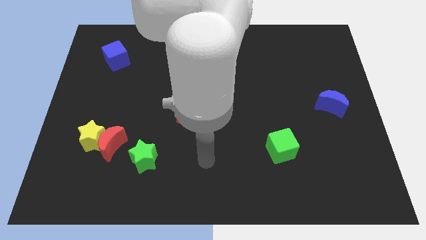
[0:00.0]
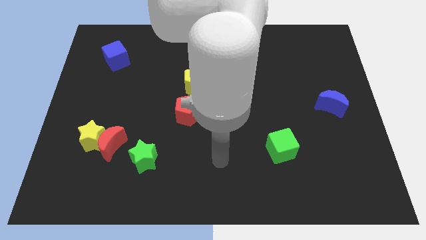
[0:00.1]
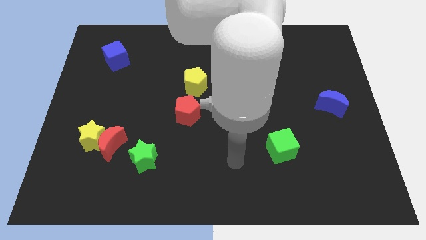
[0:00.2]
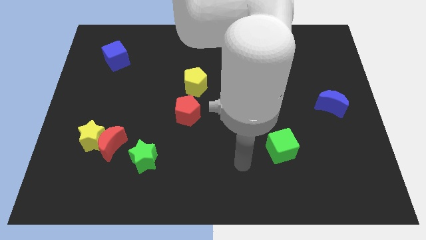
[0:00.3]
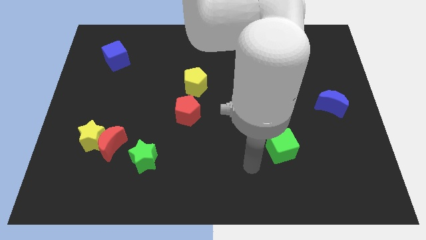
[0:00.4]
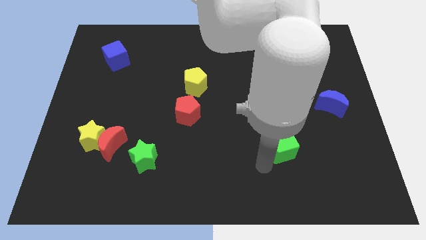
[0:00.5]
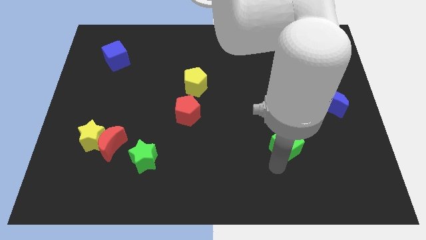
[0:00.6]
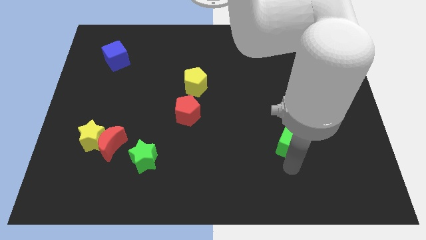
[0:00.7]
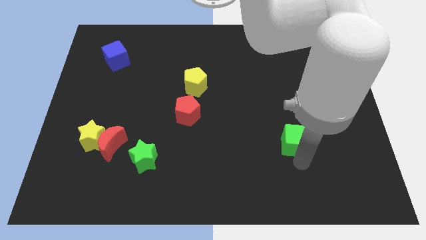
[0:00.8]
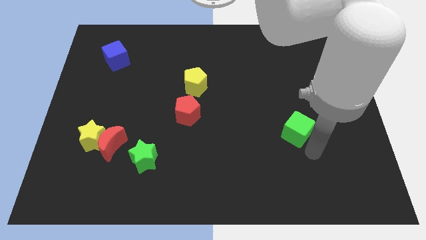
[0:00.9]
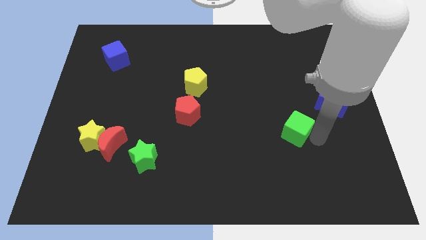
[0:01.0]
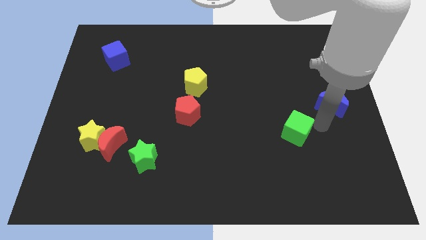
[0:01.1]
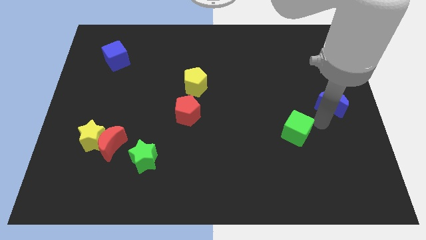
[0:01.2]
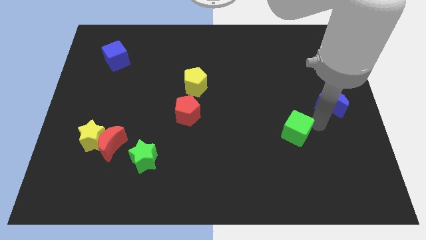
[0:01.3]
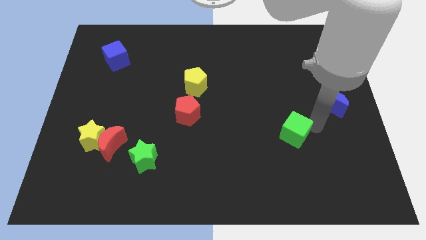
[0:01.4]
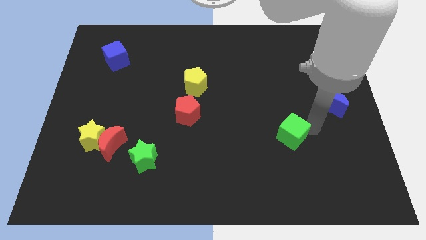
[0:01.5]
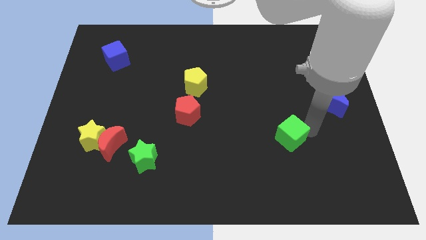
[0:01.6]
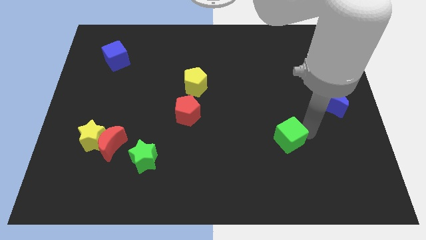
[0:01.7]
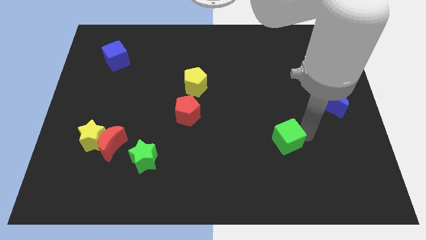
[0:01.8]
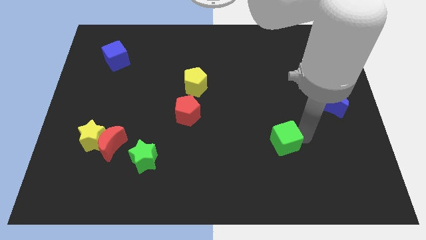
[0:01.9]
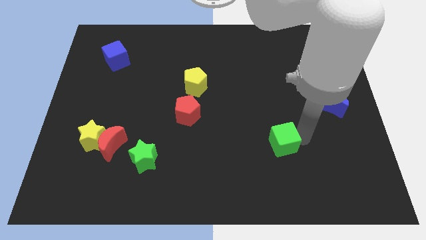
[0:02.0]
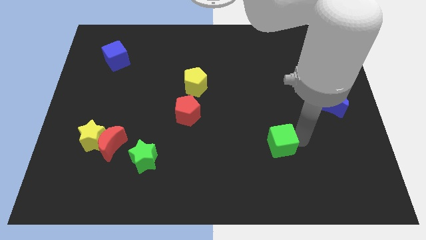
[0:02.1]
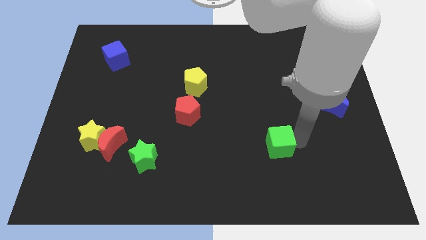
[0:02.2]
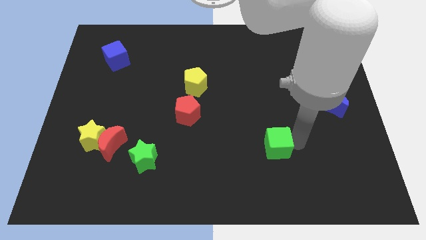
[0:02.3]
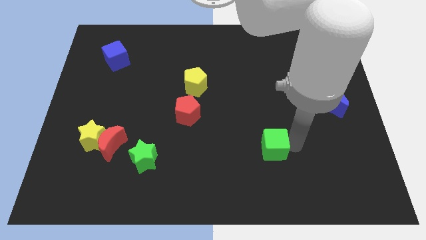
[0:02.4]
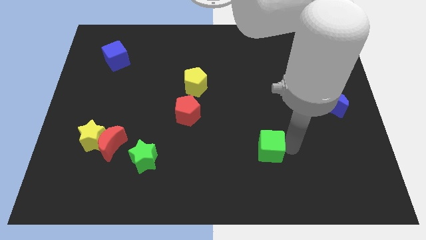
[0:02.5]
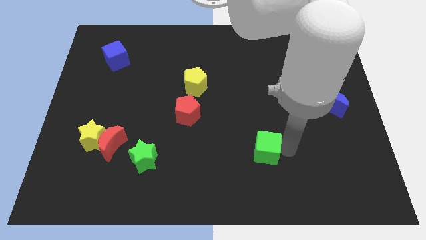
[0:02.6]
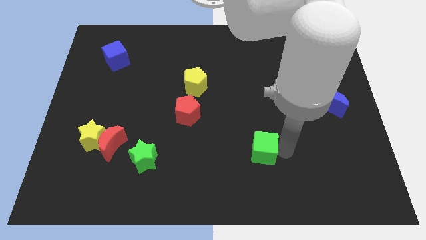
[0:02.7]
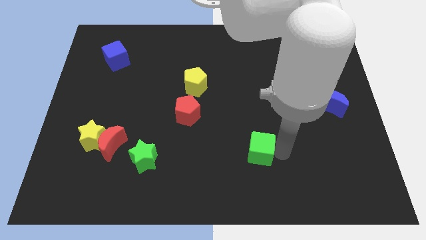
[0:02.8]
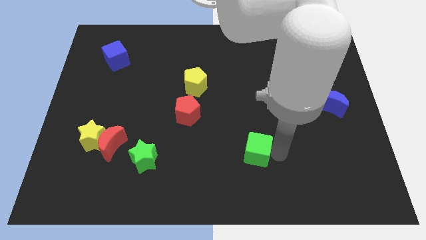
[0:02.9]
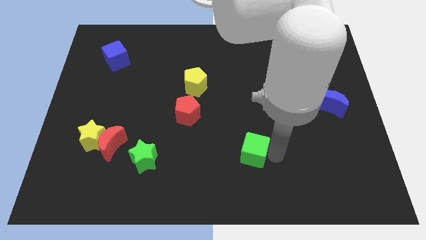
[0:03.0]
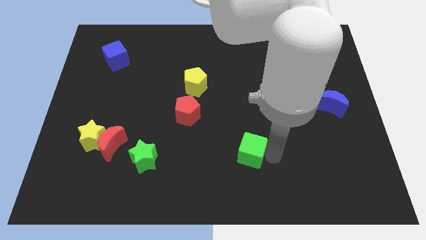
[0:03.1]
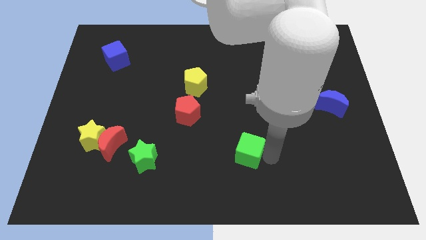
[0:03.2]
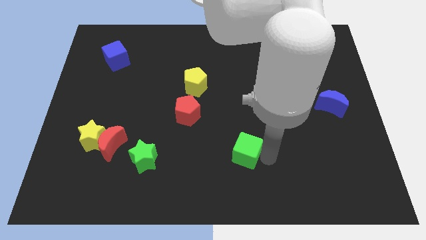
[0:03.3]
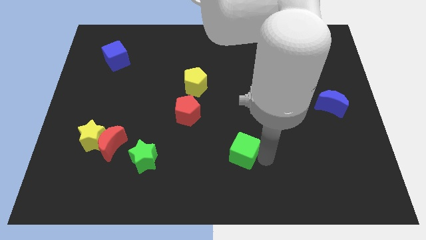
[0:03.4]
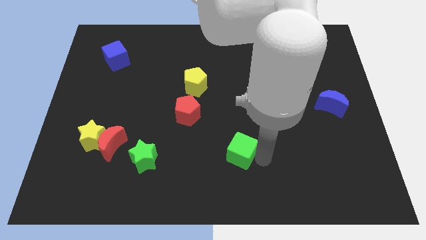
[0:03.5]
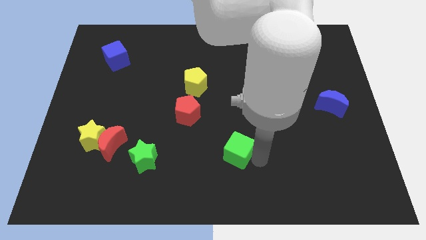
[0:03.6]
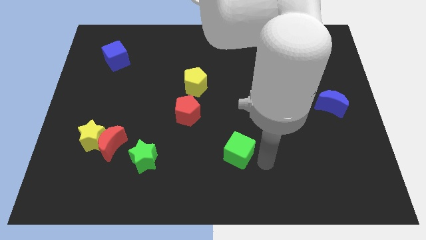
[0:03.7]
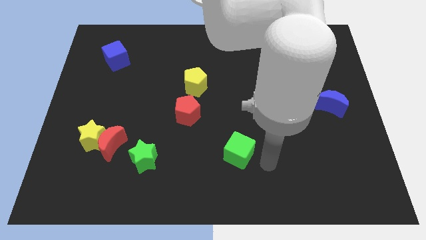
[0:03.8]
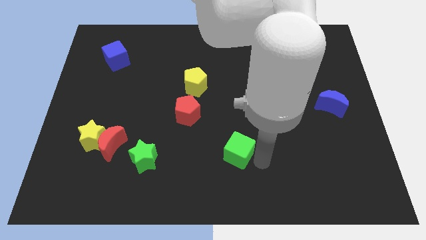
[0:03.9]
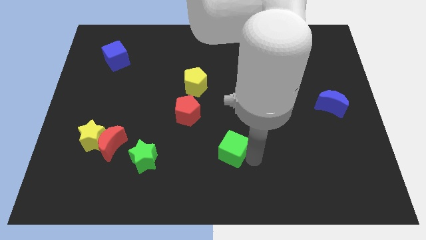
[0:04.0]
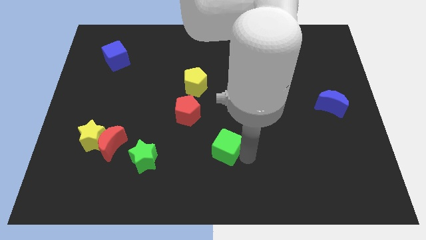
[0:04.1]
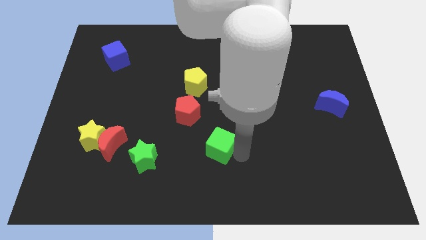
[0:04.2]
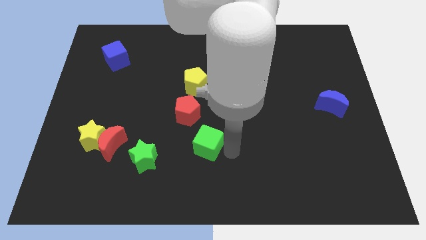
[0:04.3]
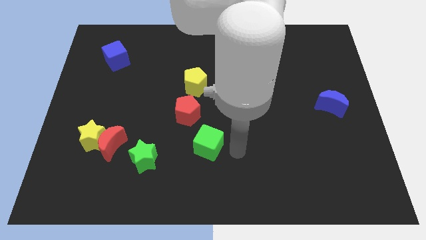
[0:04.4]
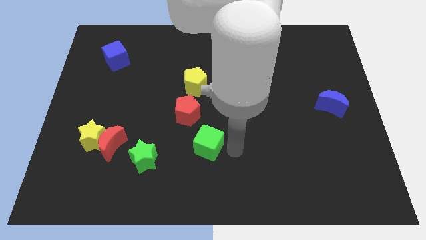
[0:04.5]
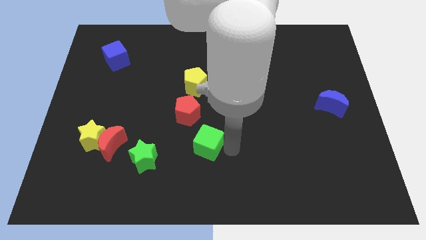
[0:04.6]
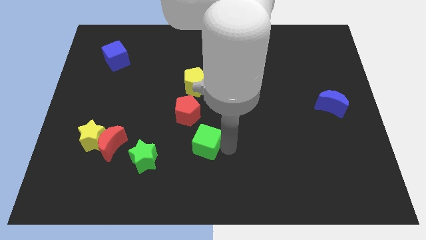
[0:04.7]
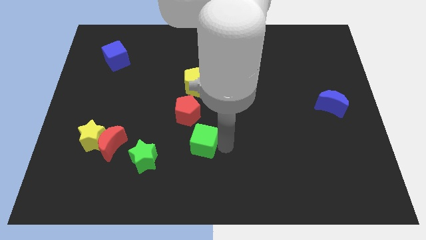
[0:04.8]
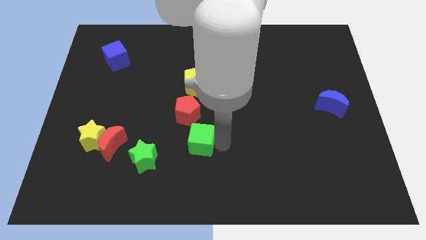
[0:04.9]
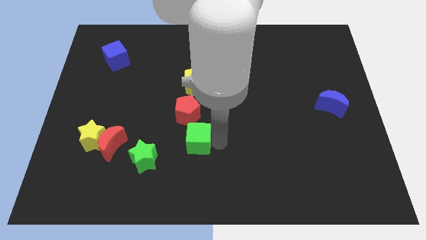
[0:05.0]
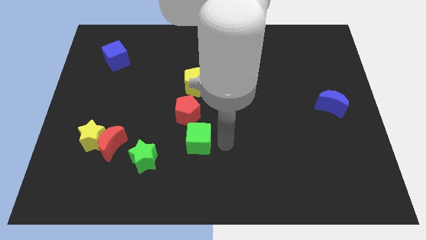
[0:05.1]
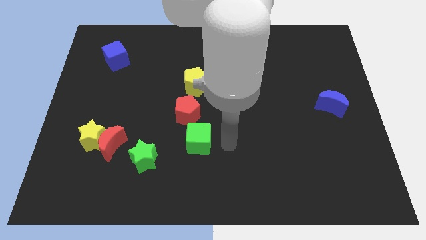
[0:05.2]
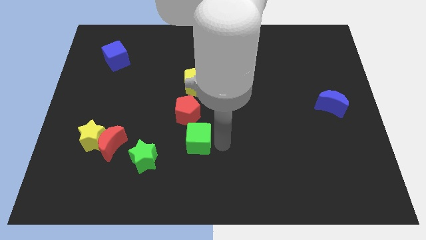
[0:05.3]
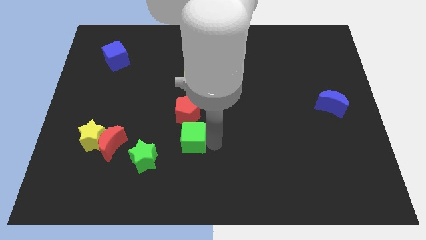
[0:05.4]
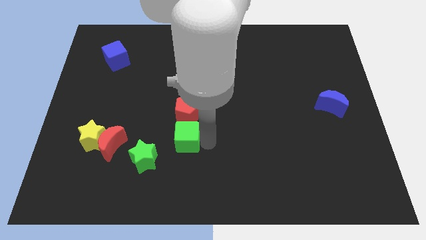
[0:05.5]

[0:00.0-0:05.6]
push the green cube to the left

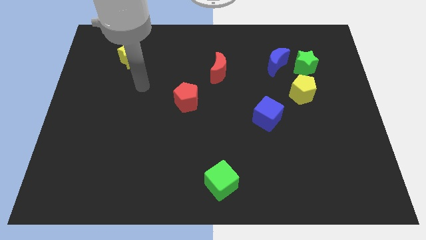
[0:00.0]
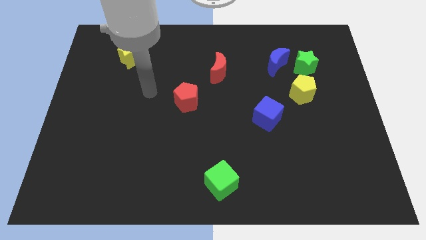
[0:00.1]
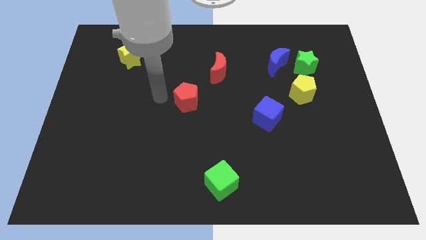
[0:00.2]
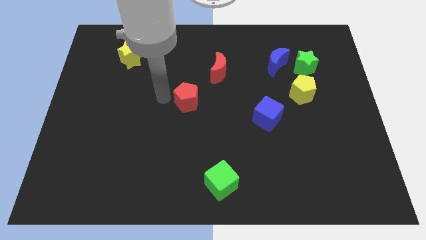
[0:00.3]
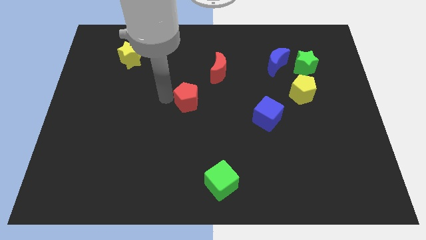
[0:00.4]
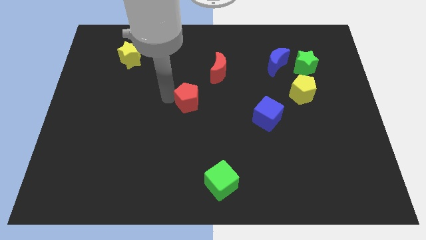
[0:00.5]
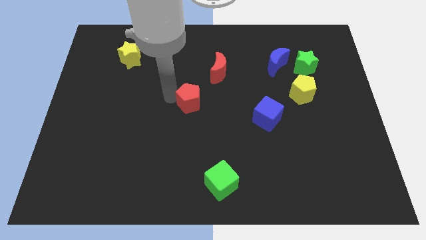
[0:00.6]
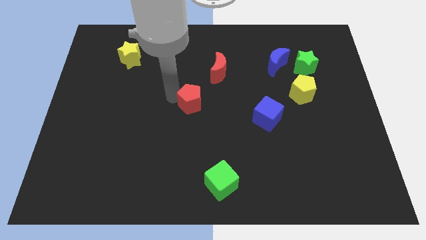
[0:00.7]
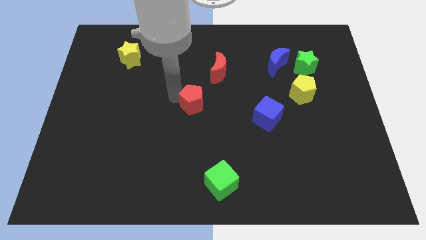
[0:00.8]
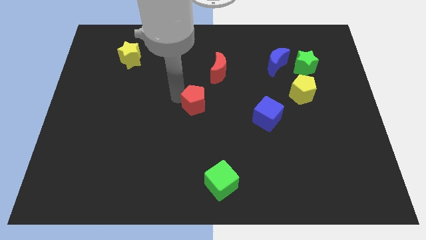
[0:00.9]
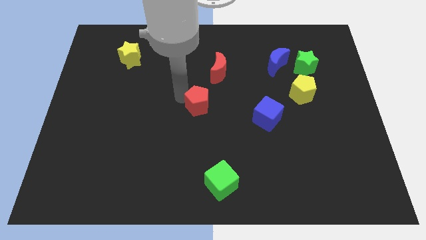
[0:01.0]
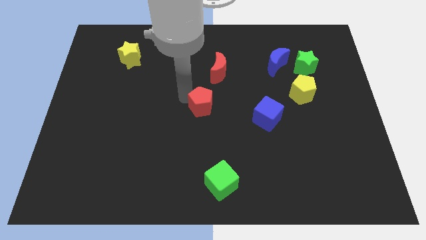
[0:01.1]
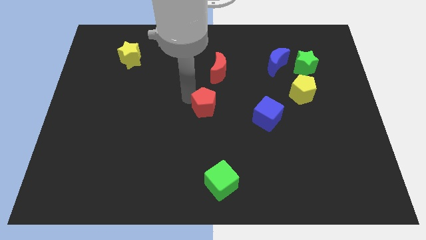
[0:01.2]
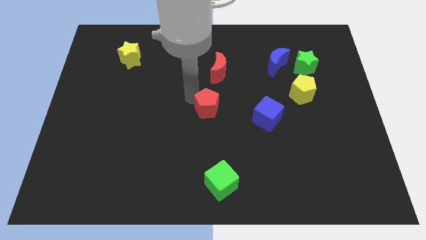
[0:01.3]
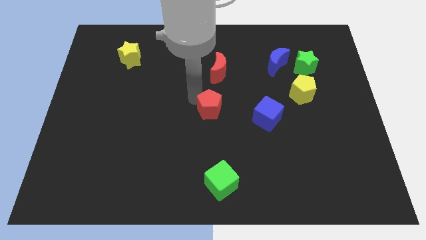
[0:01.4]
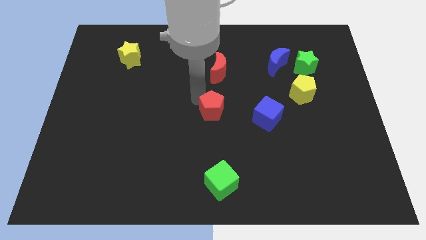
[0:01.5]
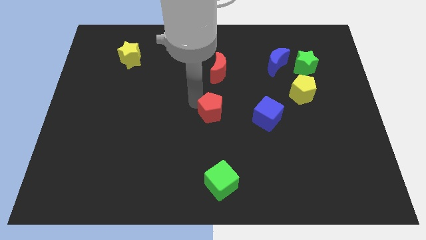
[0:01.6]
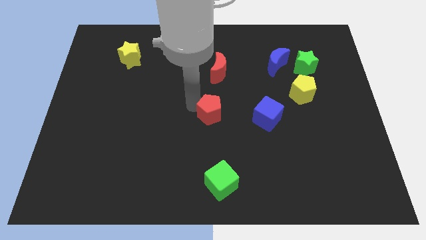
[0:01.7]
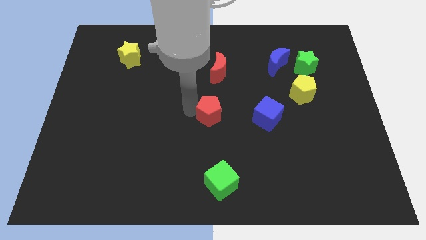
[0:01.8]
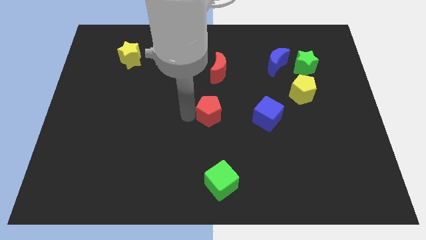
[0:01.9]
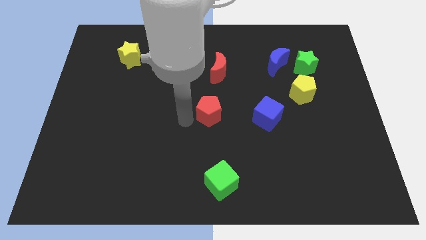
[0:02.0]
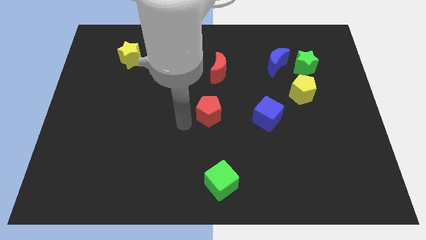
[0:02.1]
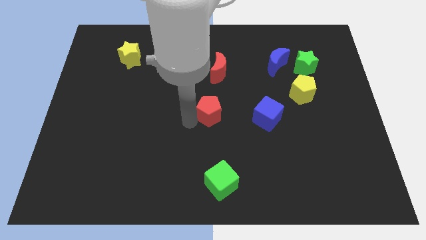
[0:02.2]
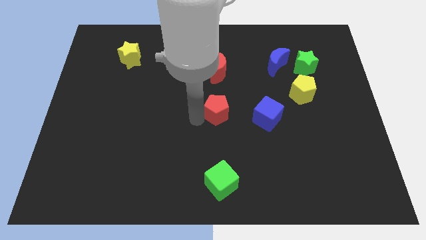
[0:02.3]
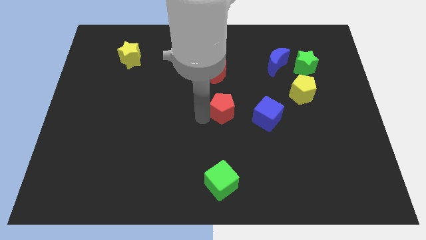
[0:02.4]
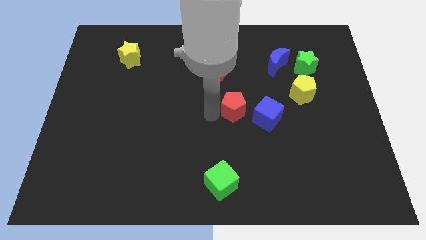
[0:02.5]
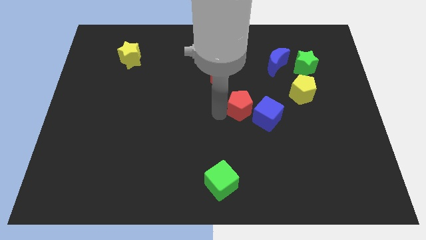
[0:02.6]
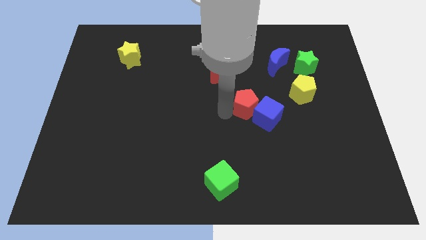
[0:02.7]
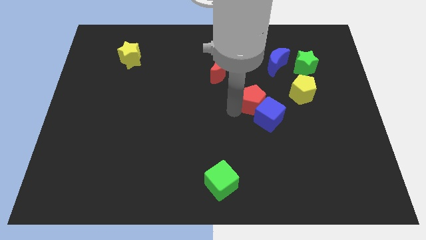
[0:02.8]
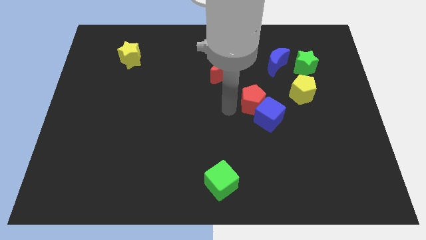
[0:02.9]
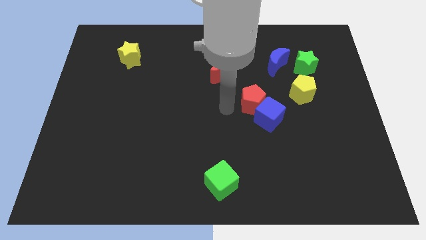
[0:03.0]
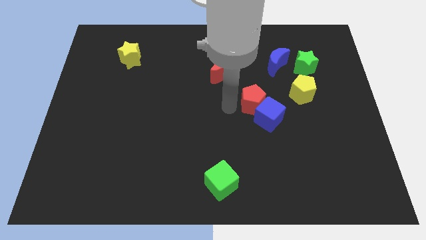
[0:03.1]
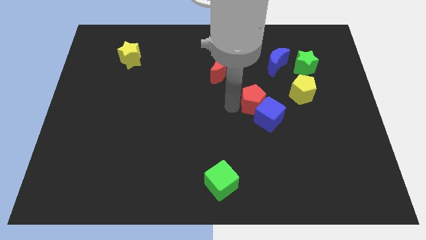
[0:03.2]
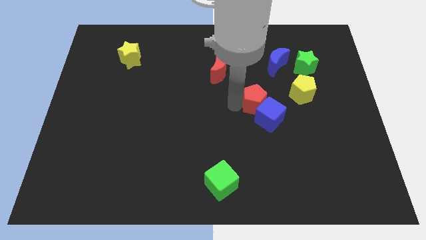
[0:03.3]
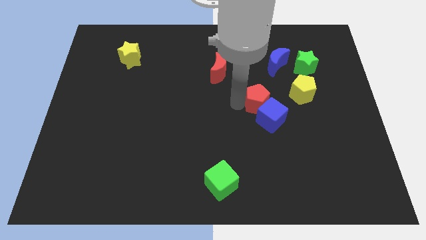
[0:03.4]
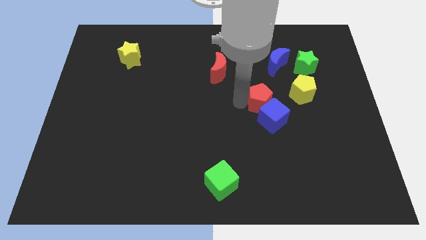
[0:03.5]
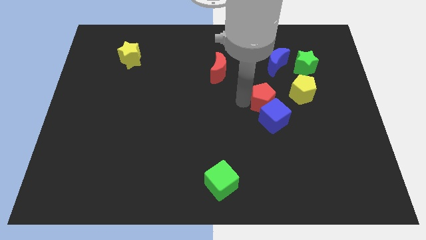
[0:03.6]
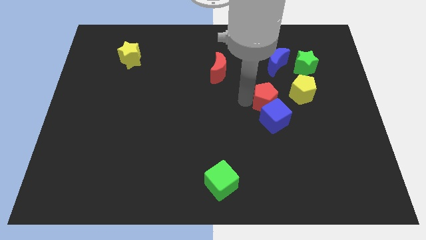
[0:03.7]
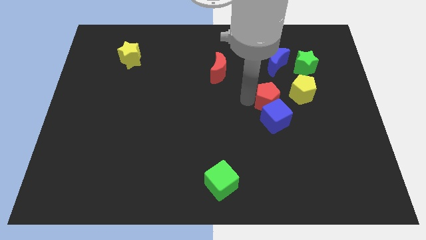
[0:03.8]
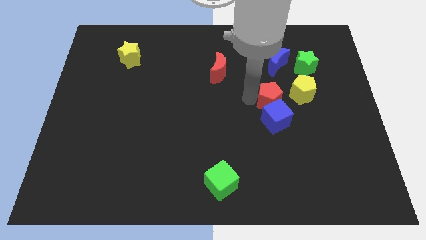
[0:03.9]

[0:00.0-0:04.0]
move the red pentagon to the right
